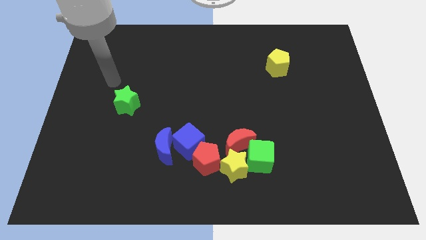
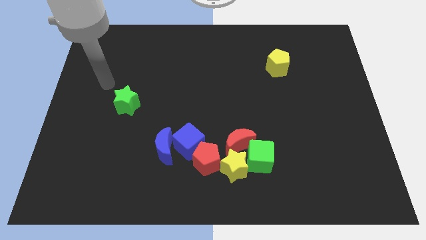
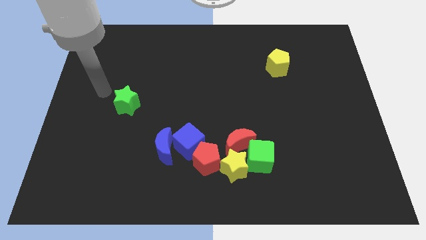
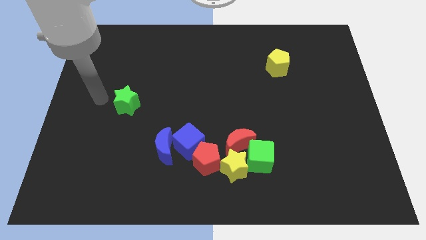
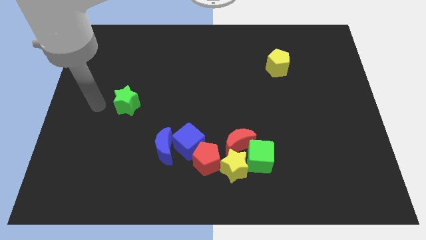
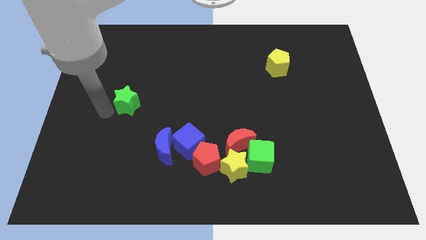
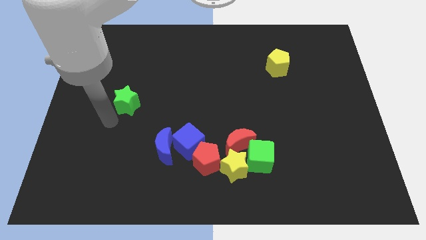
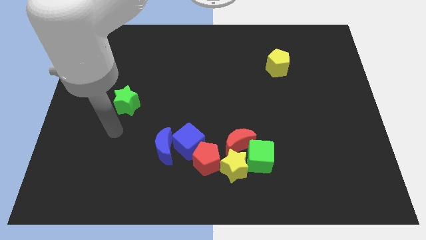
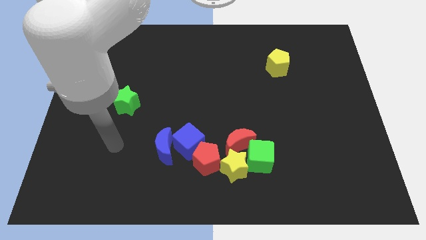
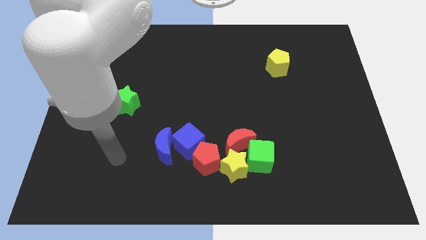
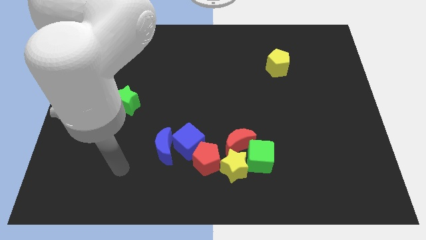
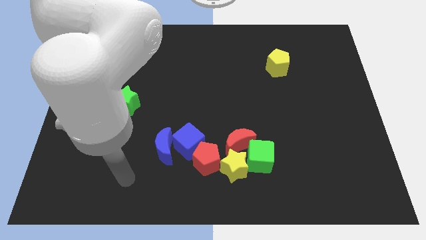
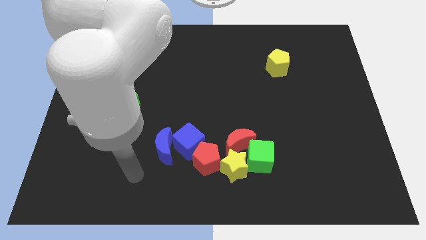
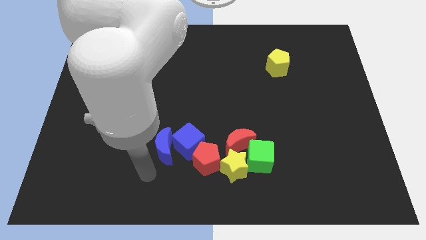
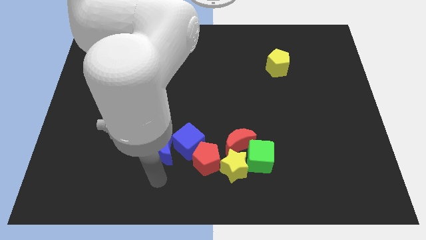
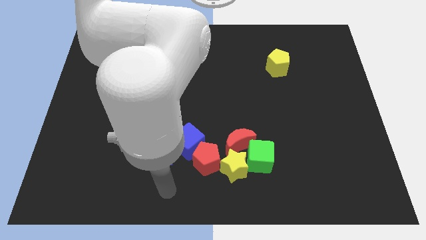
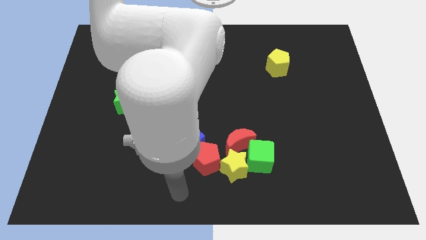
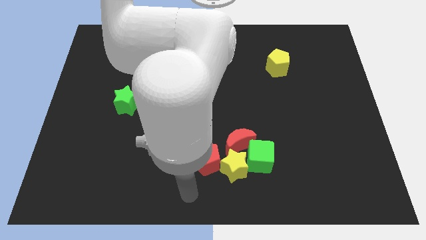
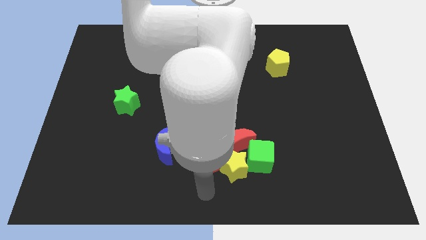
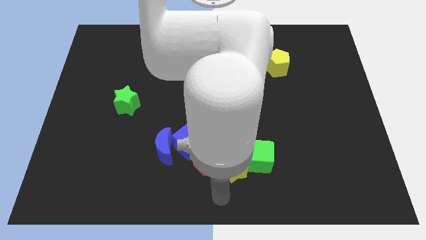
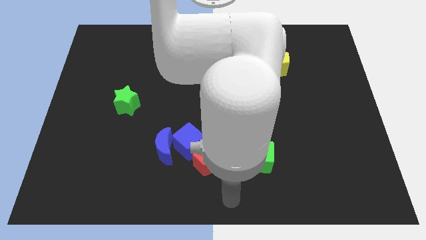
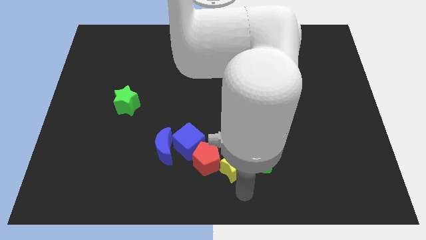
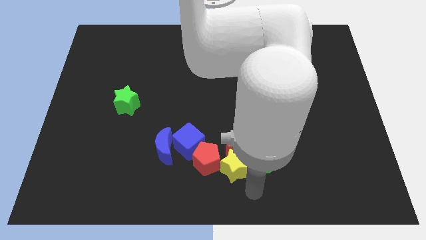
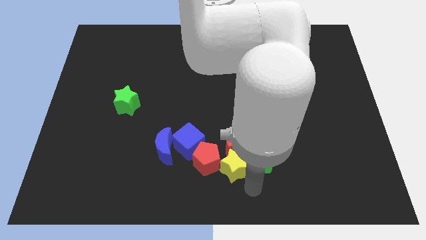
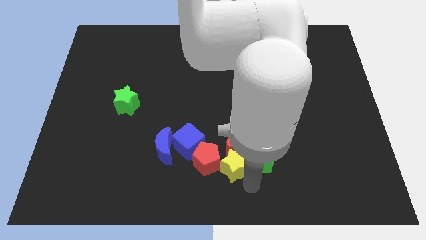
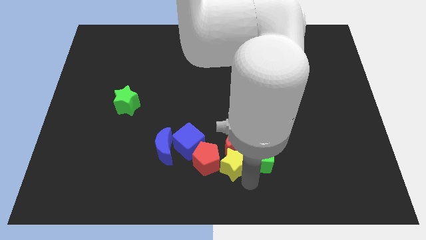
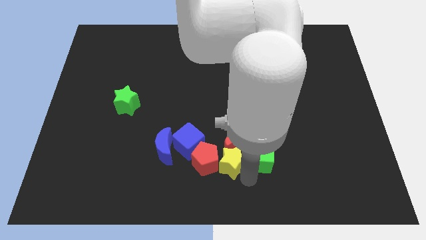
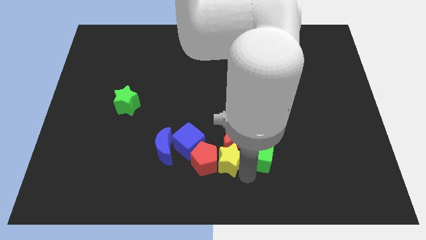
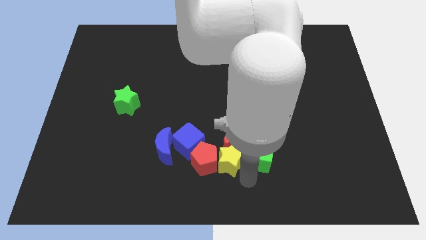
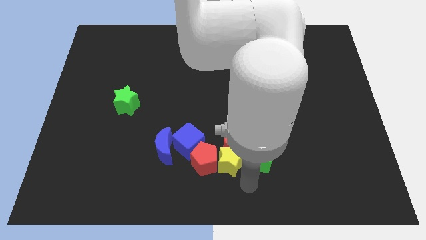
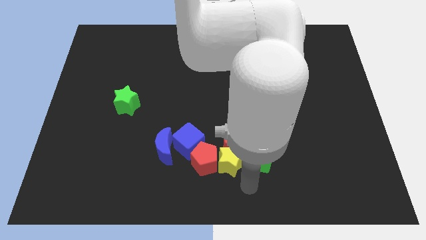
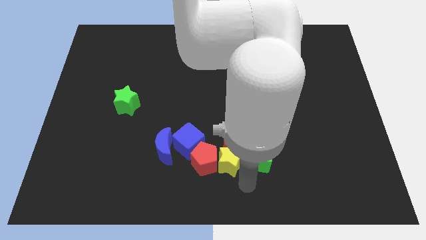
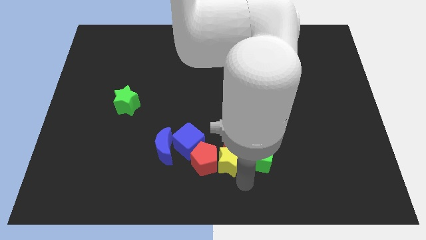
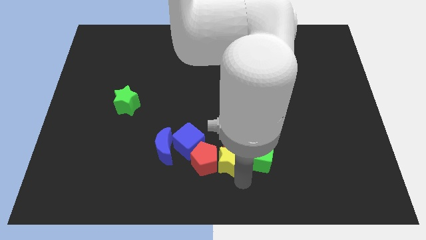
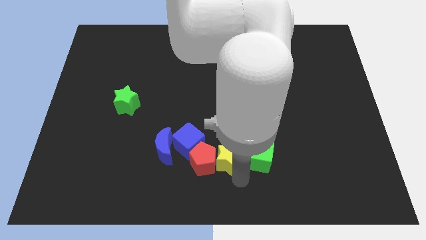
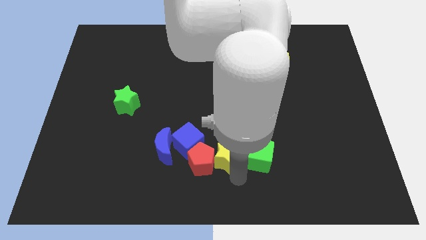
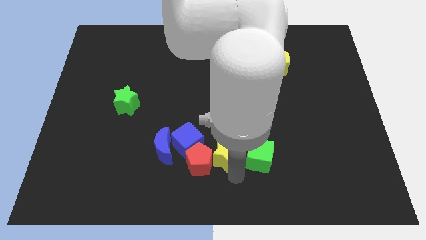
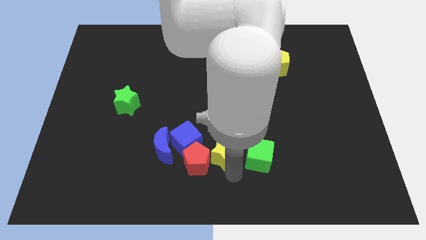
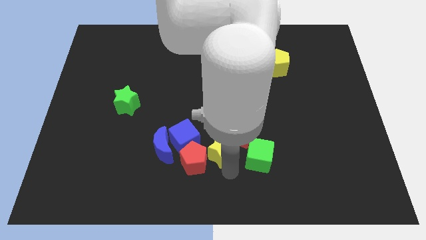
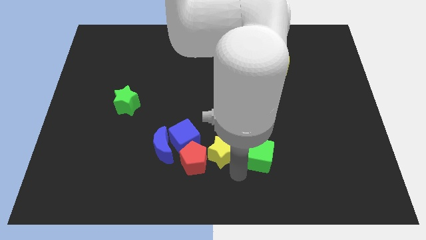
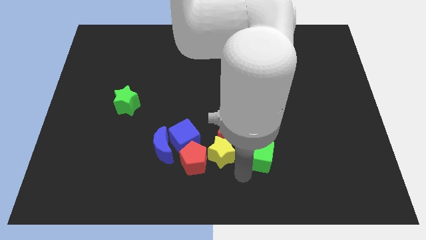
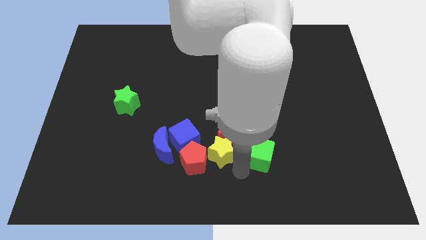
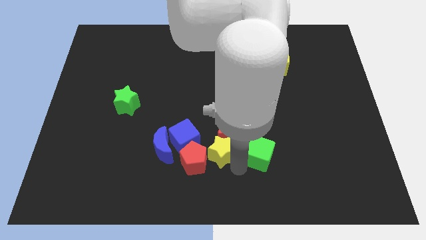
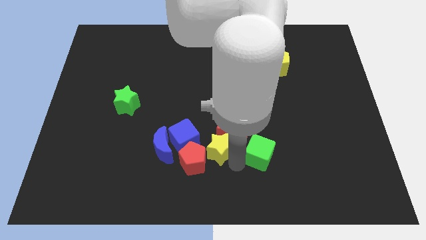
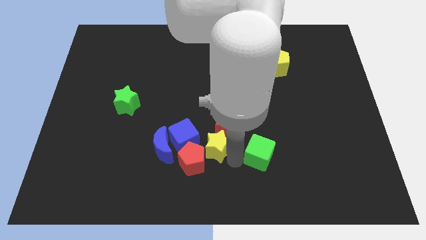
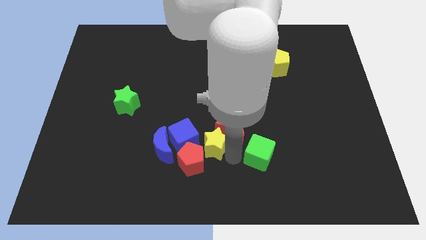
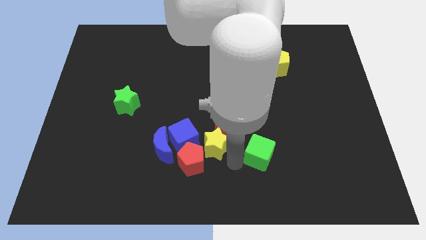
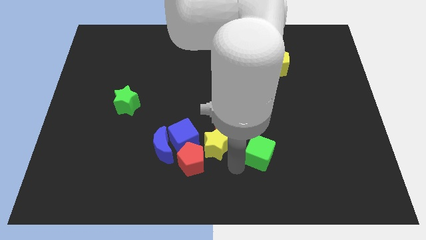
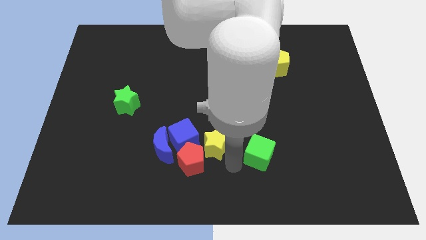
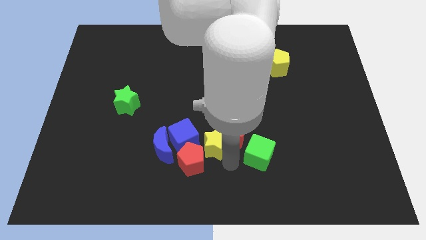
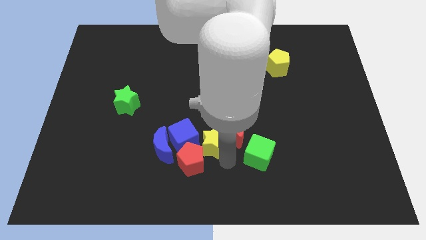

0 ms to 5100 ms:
move the yellow star up and then left a little

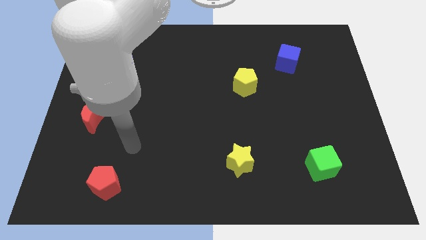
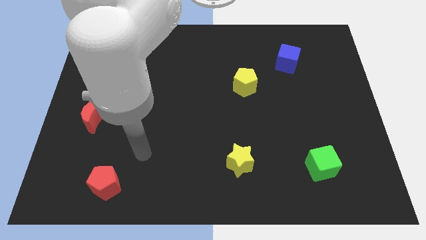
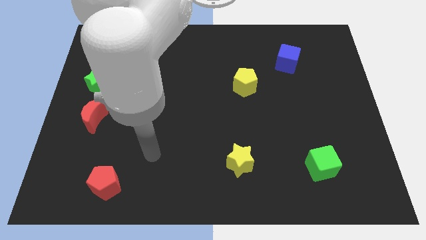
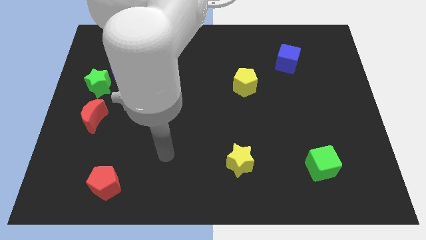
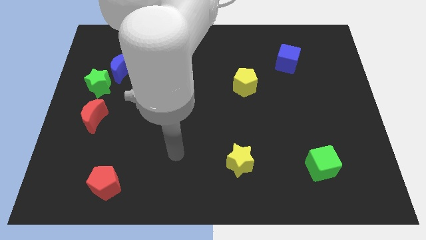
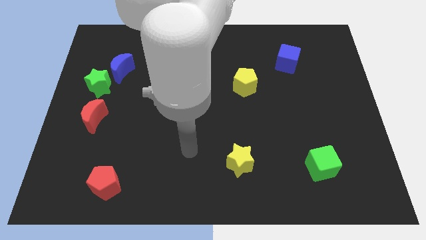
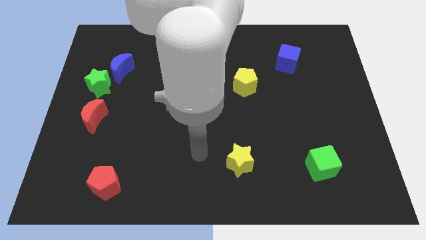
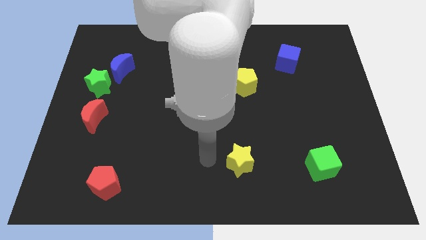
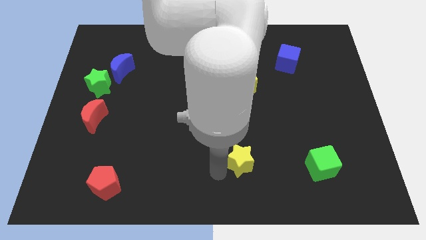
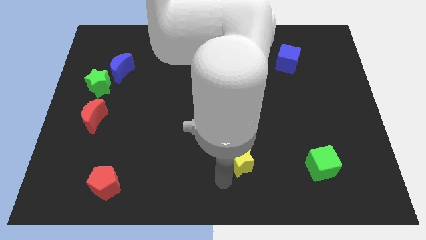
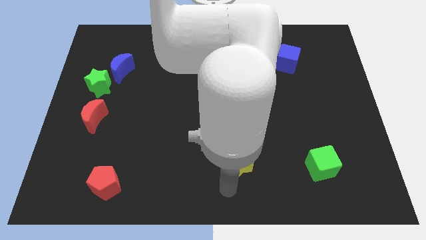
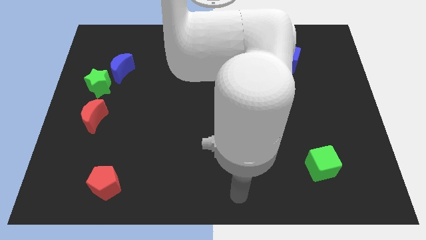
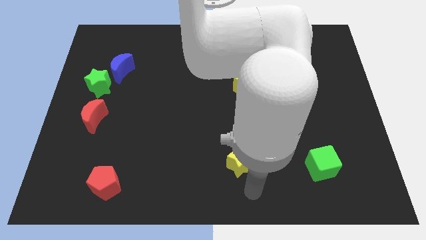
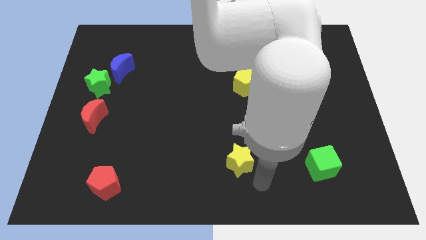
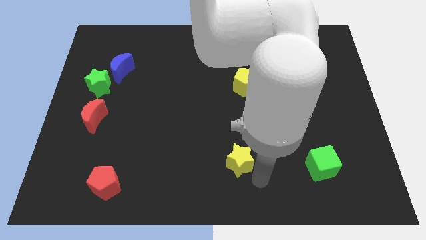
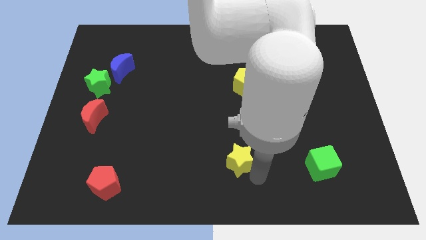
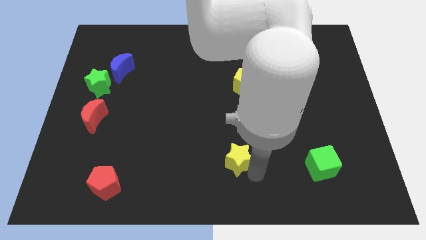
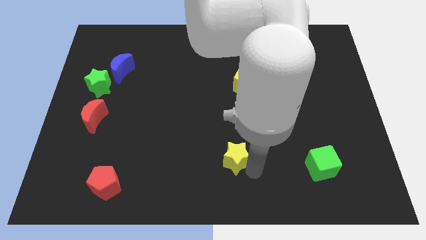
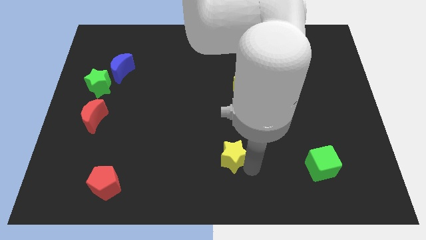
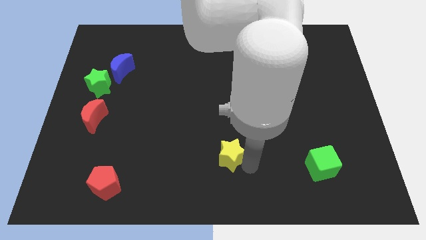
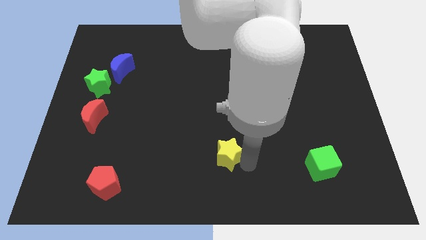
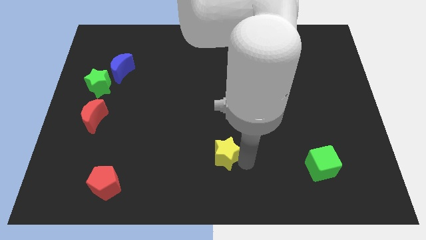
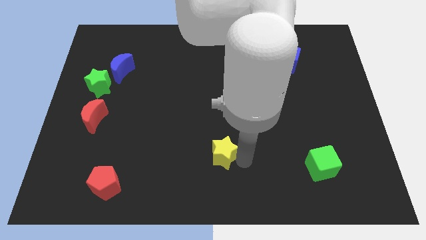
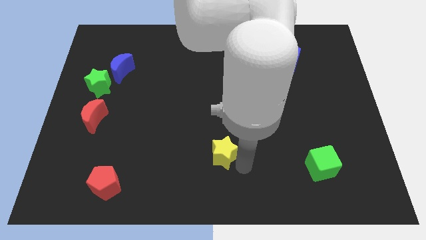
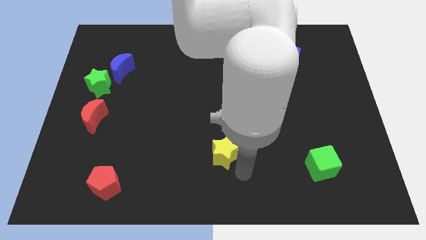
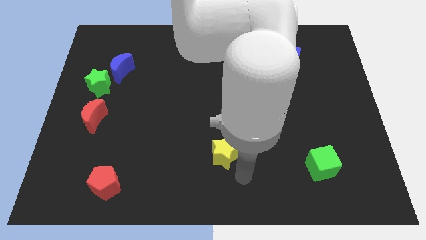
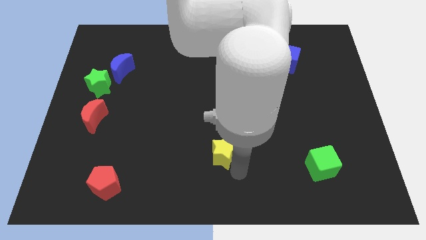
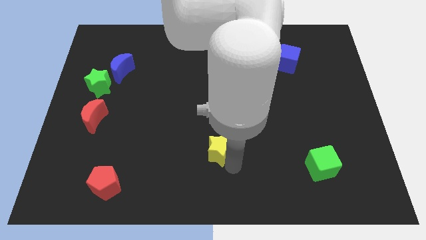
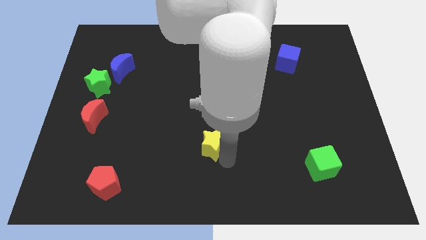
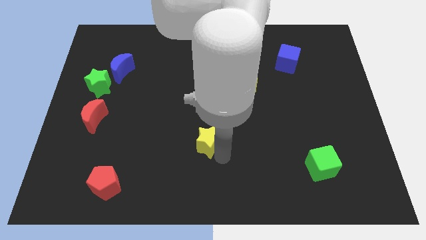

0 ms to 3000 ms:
slightly slide the yellow star up and then left

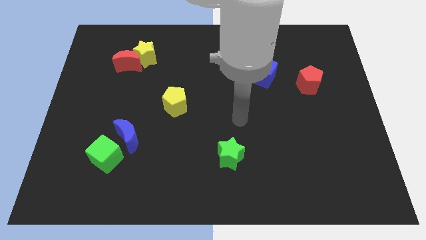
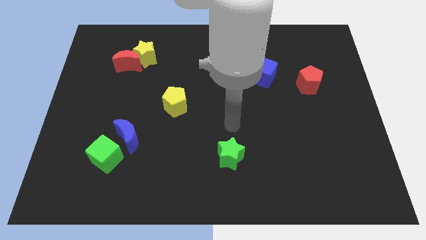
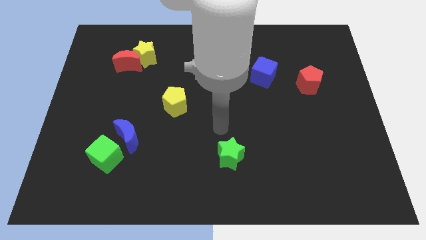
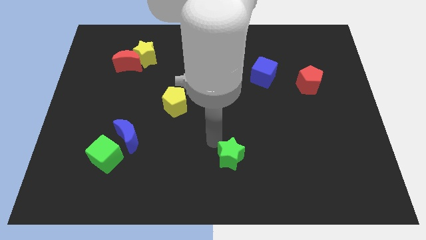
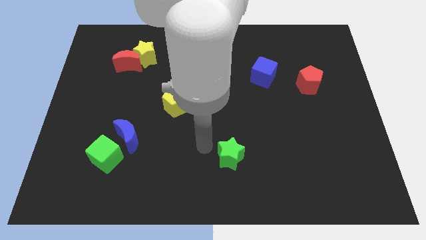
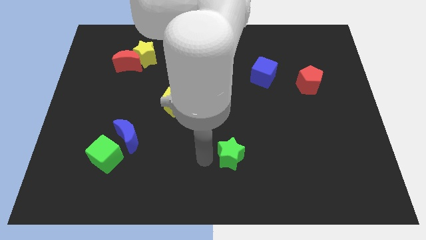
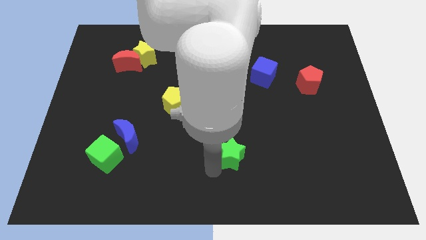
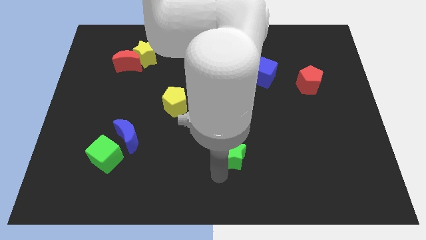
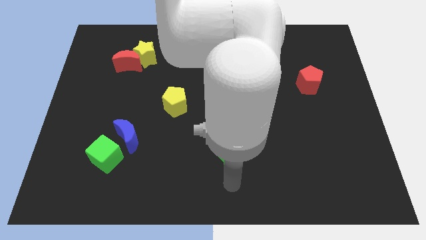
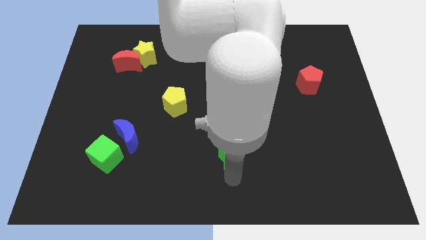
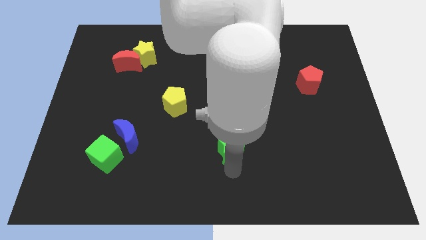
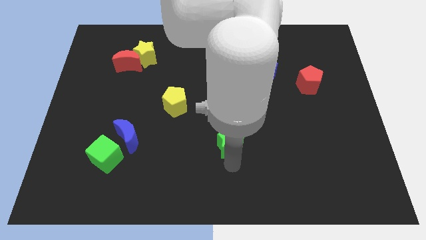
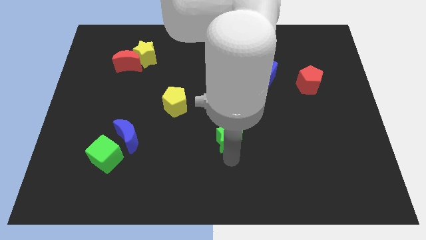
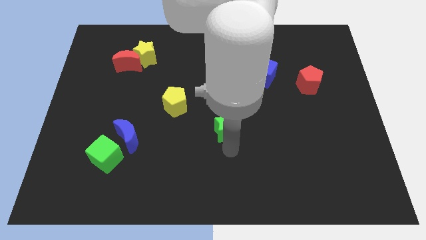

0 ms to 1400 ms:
move the green star up a bit
